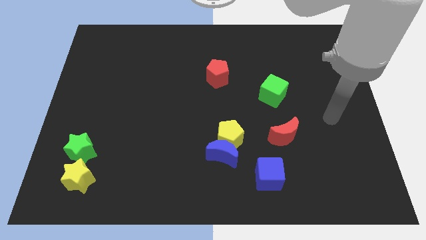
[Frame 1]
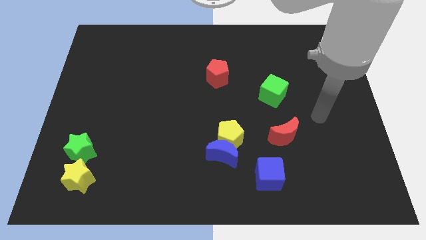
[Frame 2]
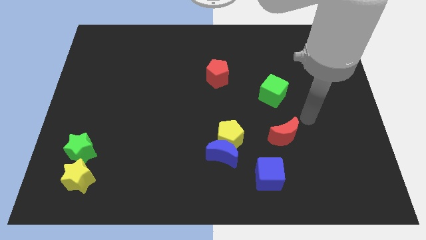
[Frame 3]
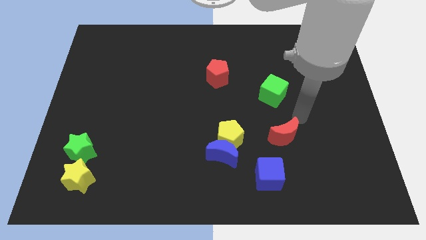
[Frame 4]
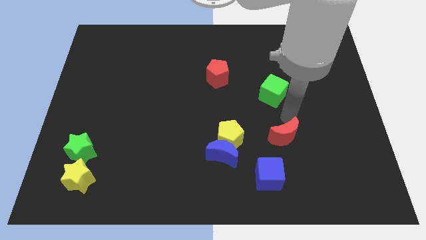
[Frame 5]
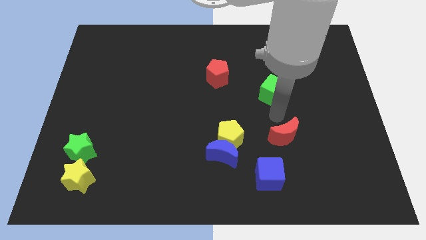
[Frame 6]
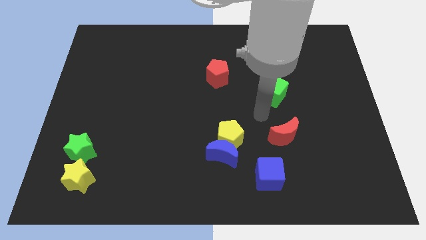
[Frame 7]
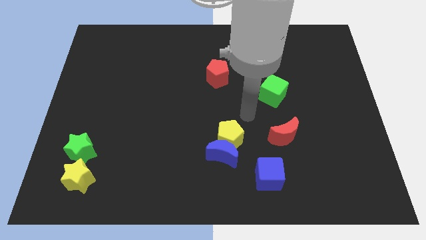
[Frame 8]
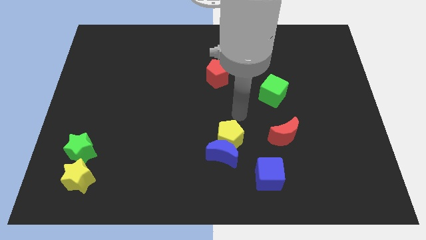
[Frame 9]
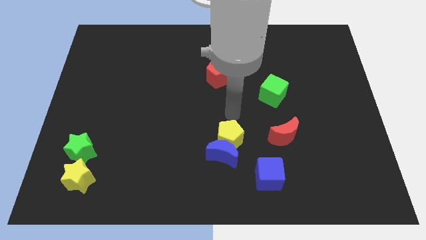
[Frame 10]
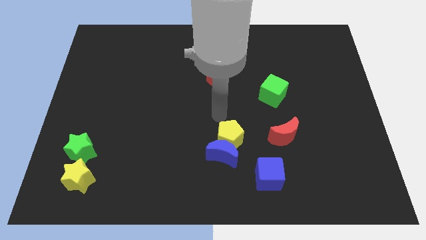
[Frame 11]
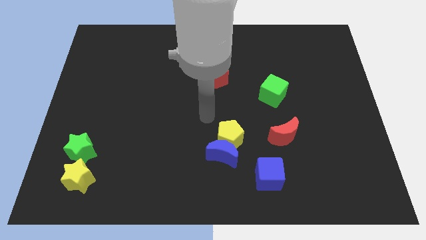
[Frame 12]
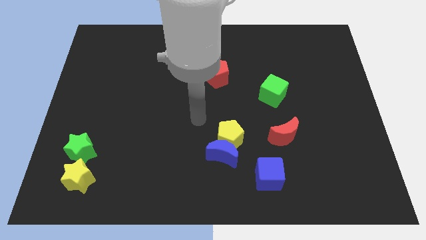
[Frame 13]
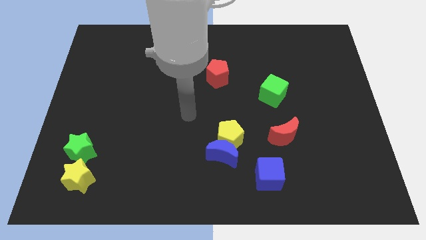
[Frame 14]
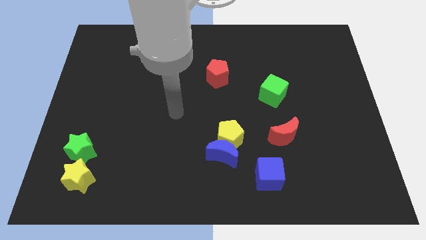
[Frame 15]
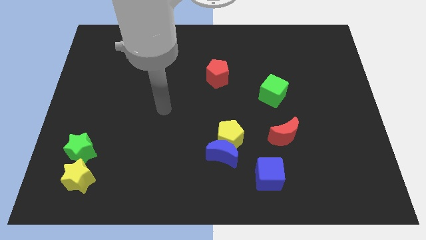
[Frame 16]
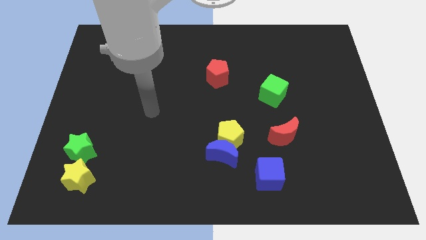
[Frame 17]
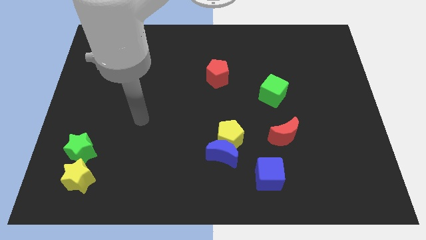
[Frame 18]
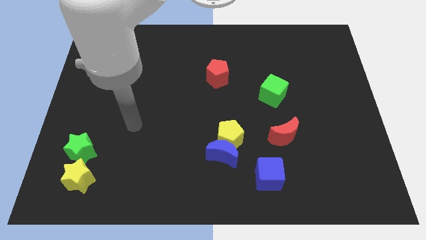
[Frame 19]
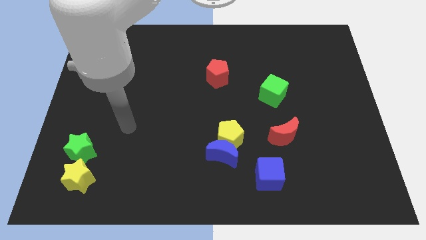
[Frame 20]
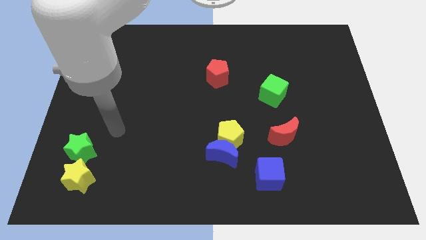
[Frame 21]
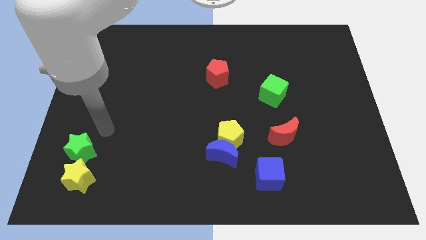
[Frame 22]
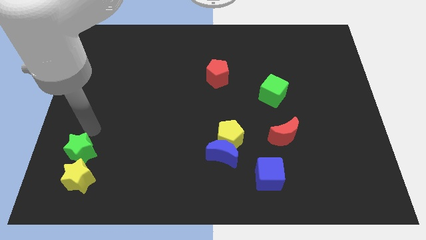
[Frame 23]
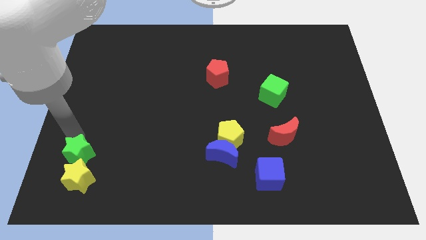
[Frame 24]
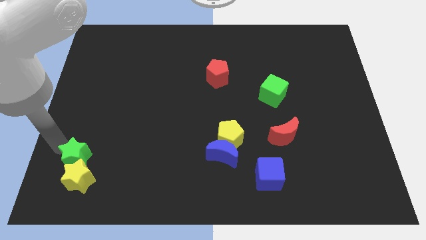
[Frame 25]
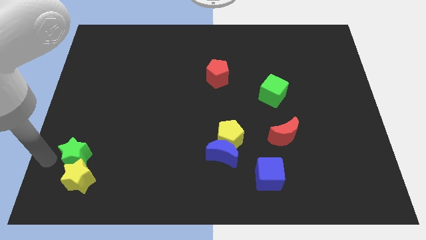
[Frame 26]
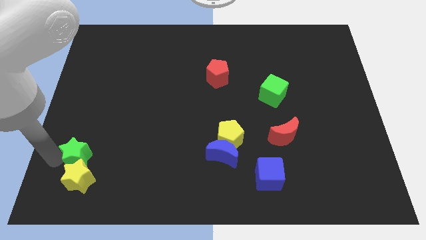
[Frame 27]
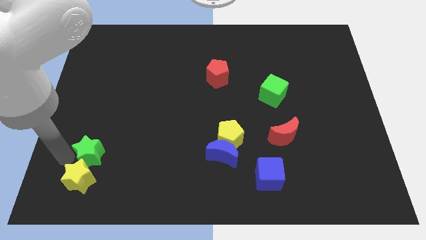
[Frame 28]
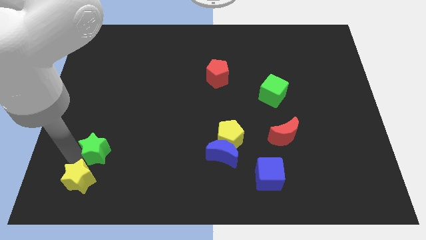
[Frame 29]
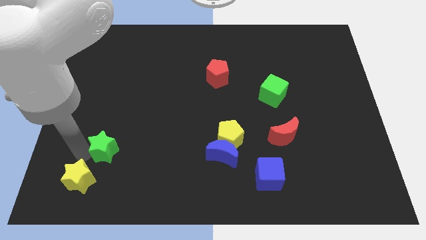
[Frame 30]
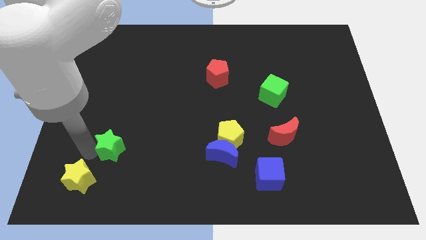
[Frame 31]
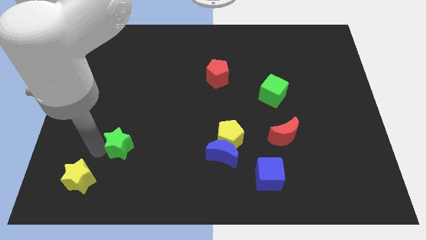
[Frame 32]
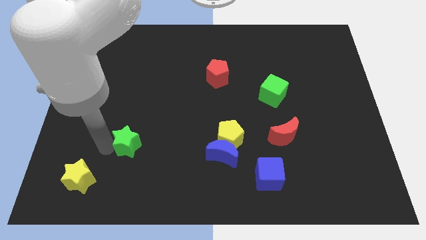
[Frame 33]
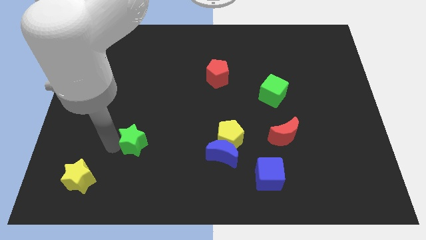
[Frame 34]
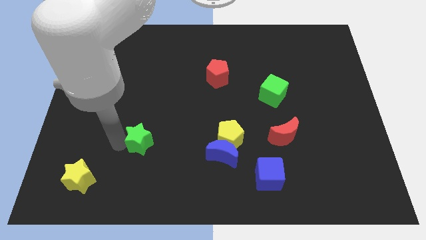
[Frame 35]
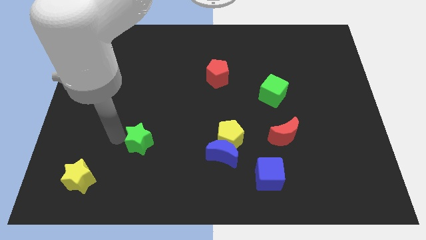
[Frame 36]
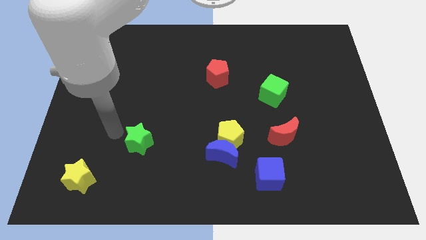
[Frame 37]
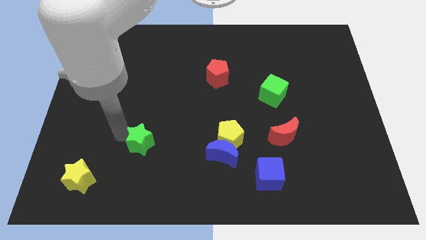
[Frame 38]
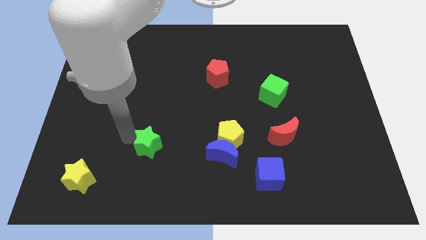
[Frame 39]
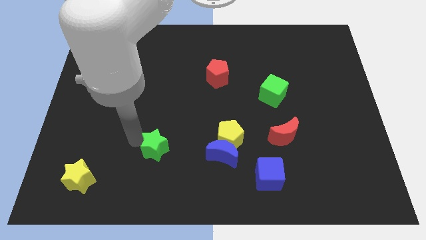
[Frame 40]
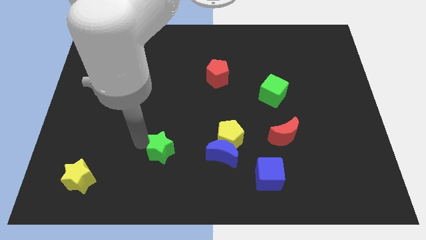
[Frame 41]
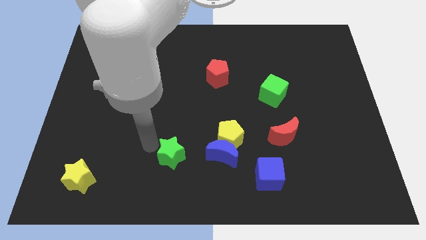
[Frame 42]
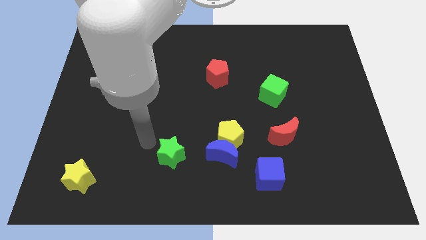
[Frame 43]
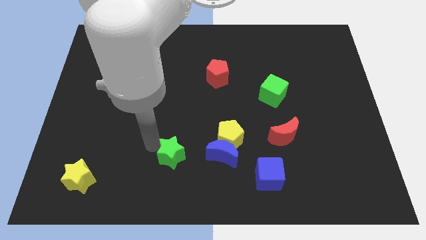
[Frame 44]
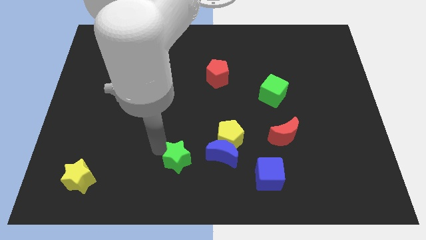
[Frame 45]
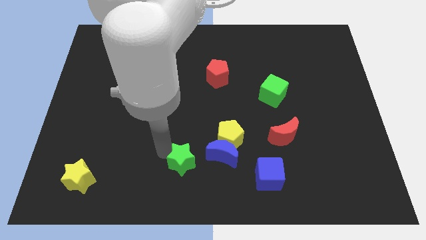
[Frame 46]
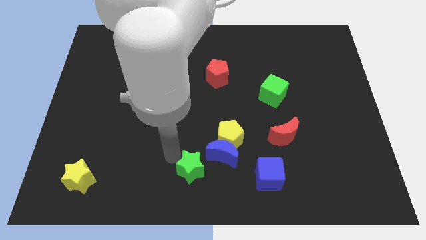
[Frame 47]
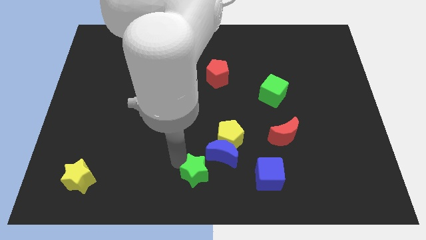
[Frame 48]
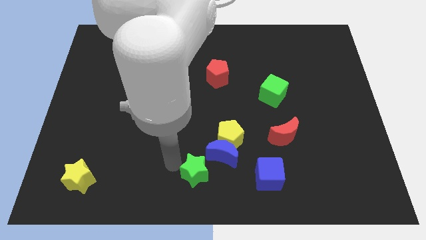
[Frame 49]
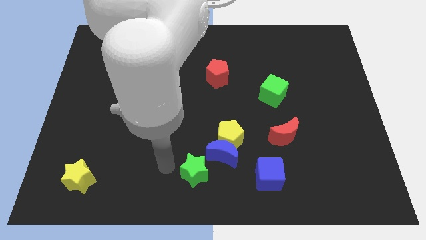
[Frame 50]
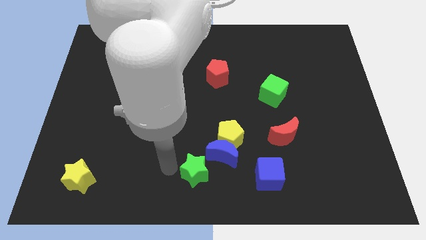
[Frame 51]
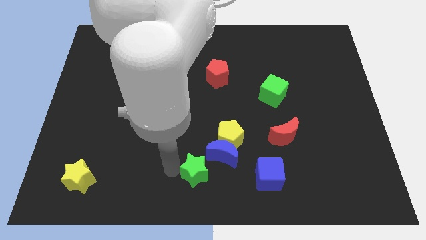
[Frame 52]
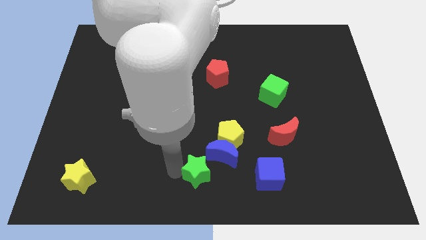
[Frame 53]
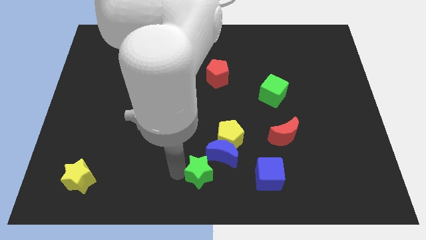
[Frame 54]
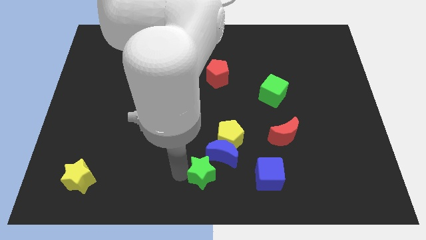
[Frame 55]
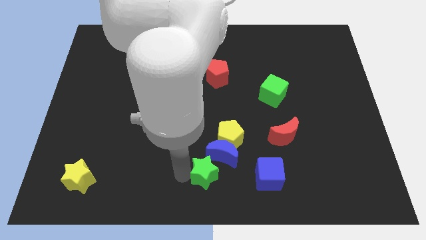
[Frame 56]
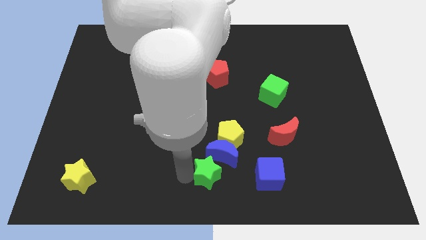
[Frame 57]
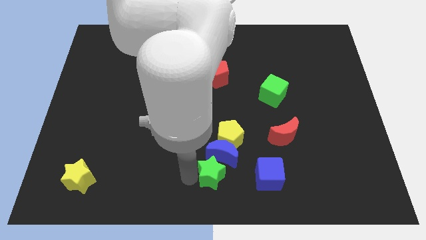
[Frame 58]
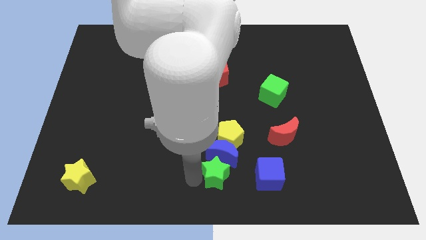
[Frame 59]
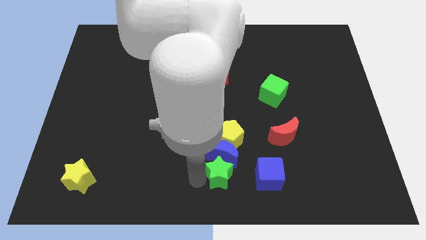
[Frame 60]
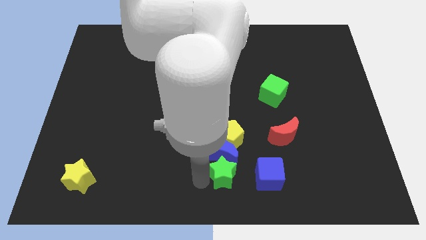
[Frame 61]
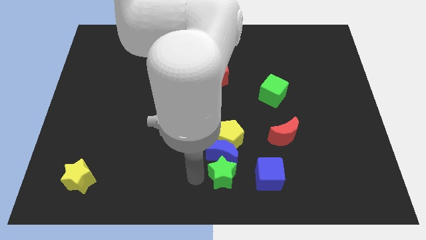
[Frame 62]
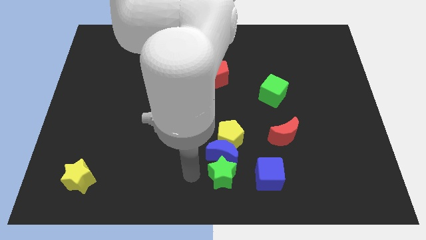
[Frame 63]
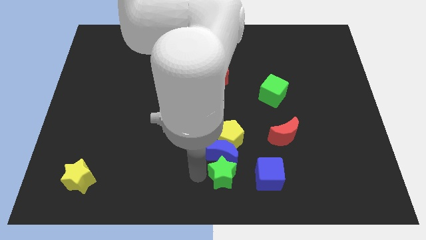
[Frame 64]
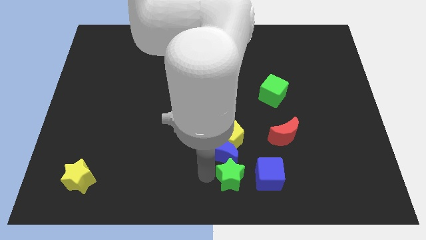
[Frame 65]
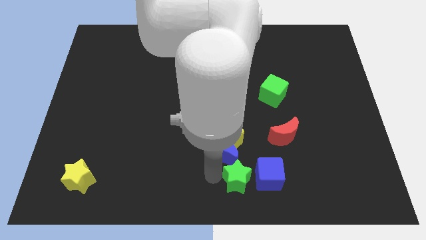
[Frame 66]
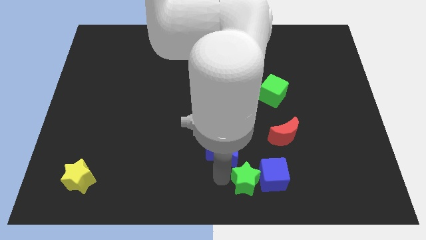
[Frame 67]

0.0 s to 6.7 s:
put the green star towards the blue cube
